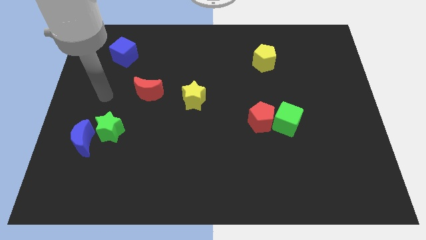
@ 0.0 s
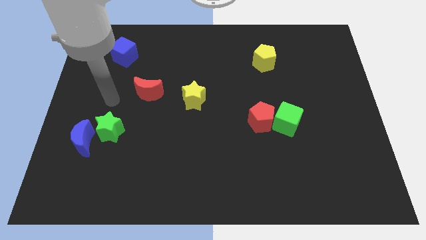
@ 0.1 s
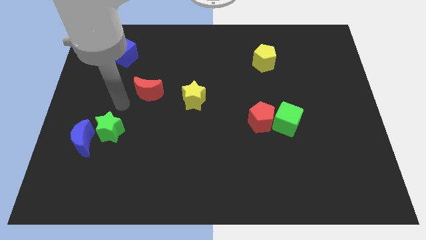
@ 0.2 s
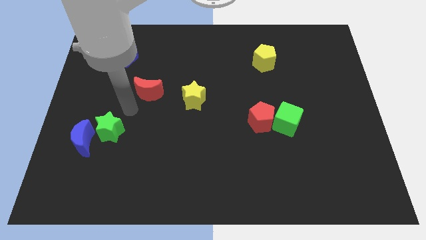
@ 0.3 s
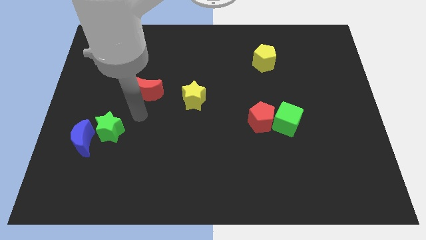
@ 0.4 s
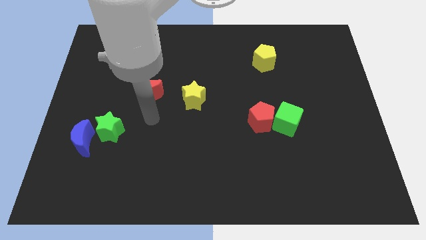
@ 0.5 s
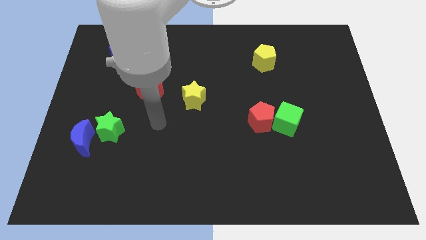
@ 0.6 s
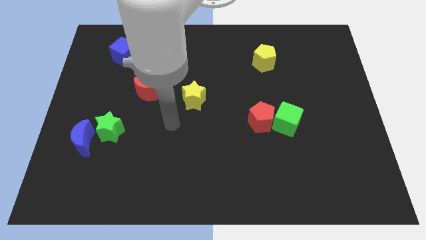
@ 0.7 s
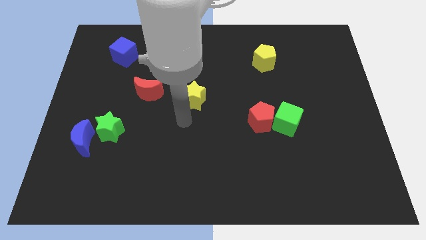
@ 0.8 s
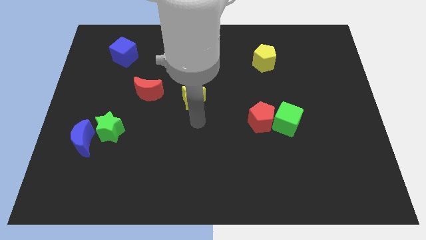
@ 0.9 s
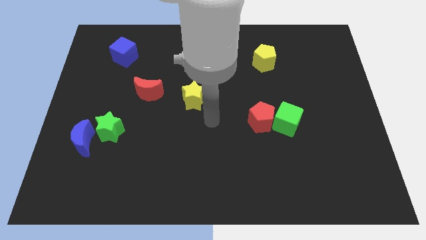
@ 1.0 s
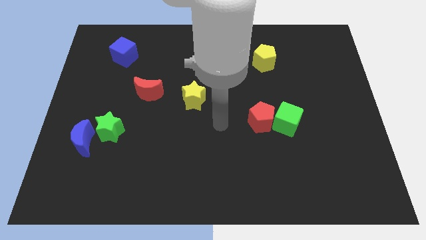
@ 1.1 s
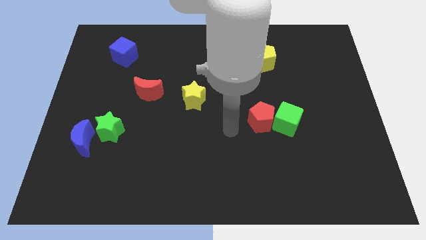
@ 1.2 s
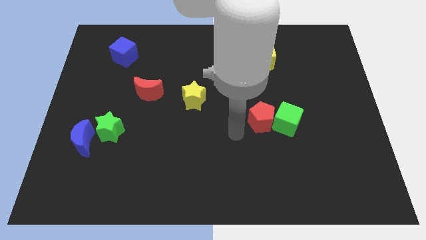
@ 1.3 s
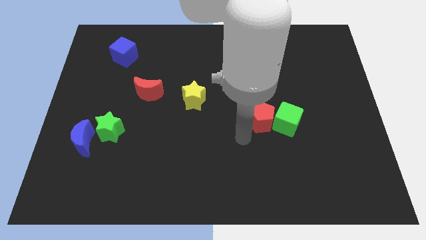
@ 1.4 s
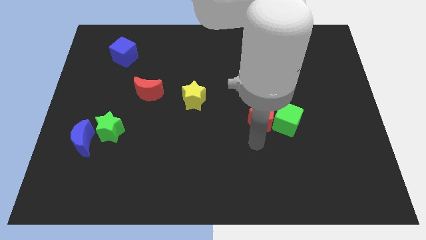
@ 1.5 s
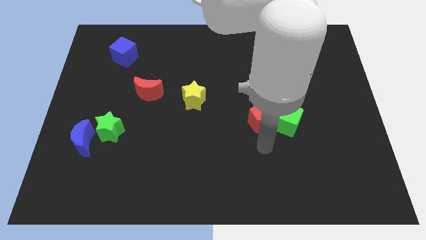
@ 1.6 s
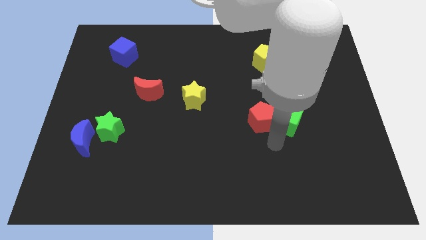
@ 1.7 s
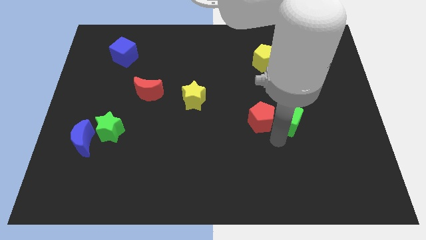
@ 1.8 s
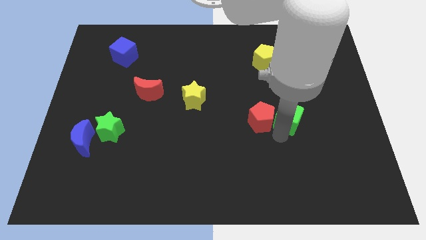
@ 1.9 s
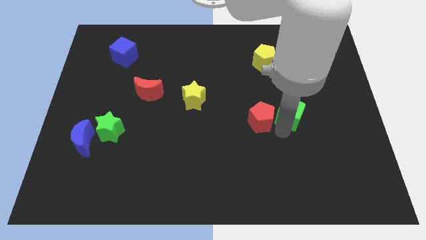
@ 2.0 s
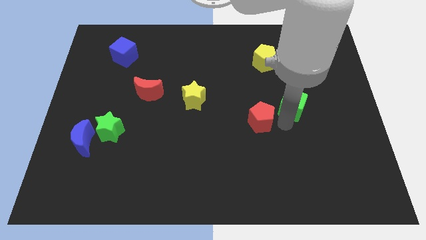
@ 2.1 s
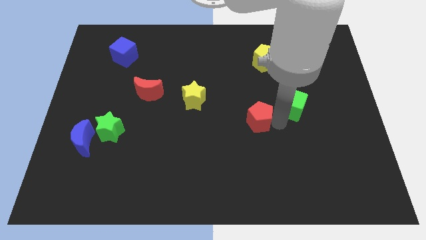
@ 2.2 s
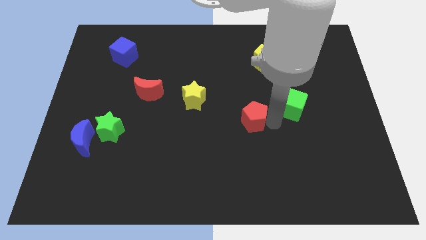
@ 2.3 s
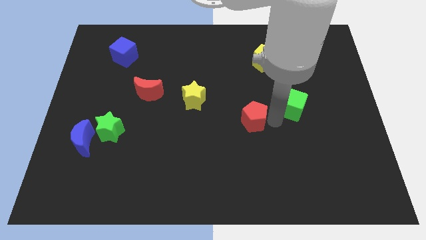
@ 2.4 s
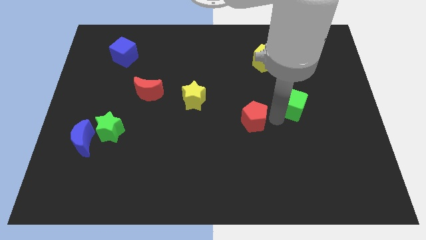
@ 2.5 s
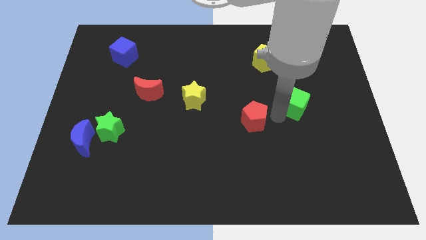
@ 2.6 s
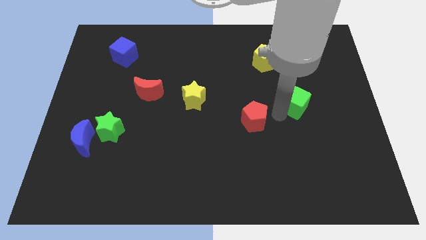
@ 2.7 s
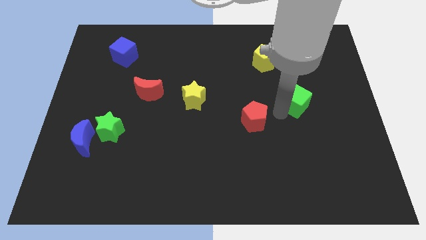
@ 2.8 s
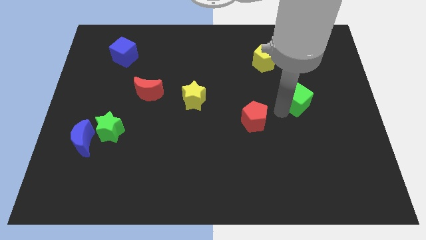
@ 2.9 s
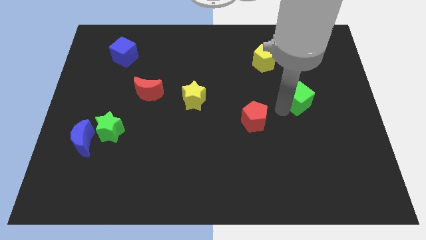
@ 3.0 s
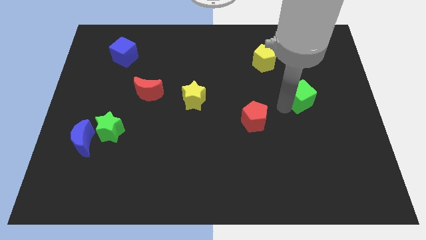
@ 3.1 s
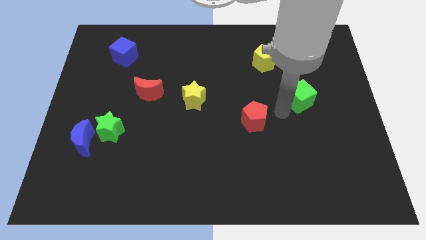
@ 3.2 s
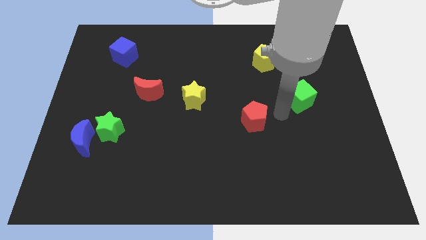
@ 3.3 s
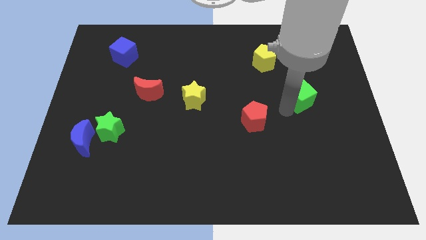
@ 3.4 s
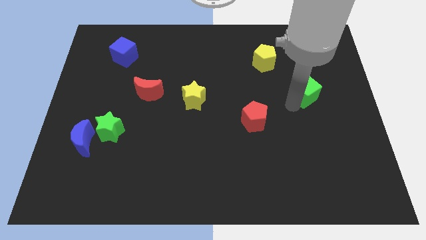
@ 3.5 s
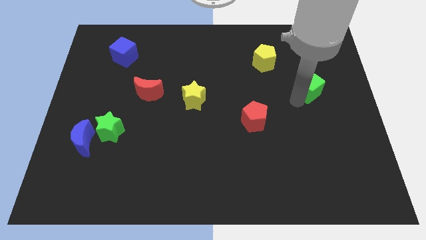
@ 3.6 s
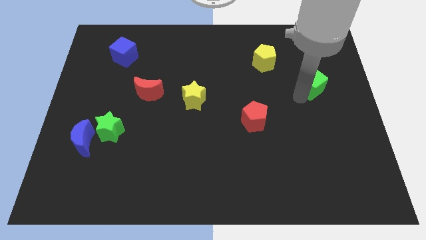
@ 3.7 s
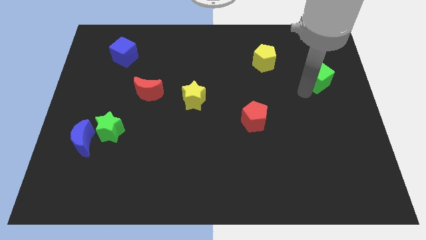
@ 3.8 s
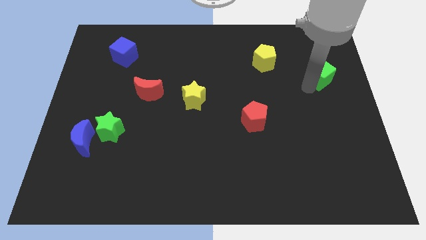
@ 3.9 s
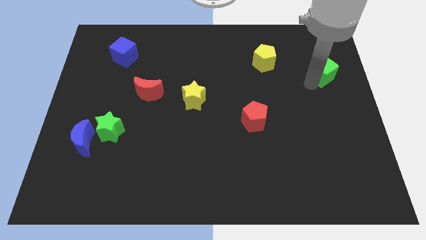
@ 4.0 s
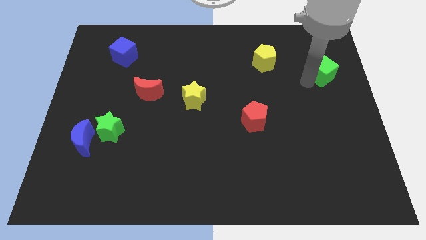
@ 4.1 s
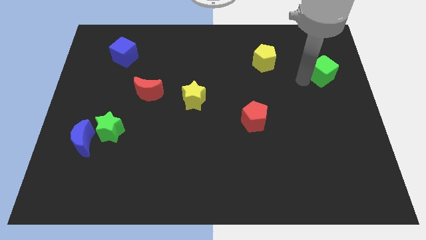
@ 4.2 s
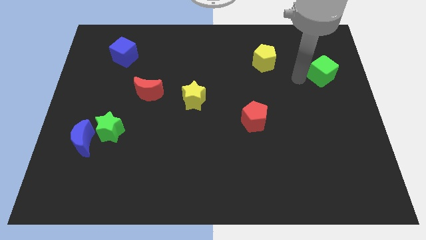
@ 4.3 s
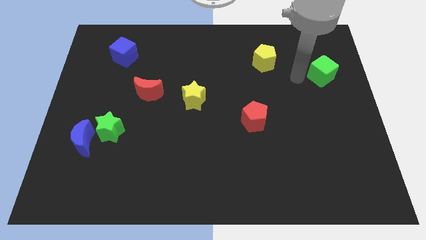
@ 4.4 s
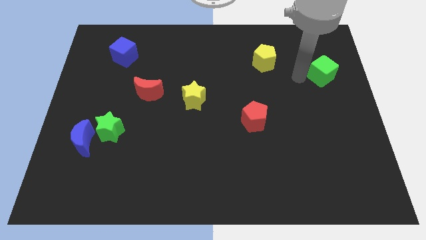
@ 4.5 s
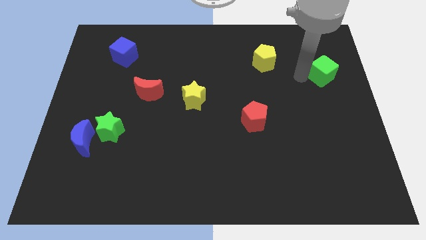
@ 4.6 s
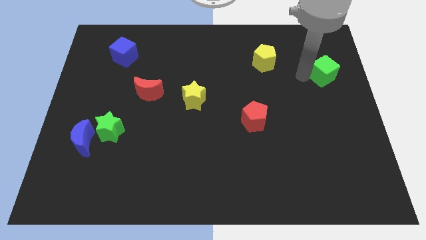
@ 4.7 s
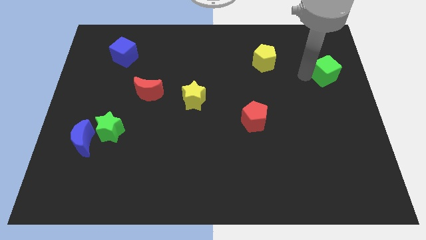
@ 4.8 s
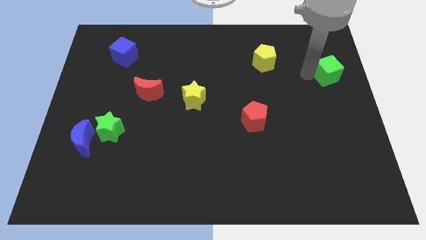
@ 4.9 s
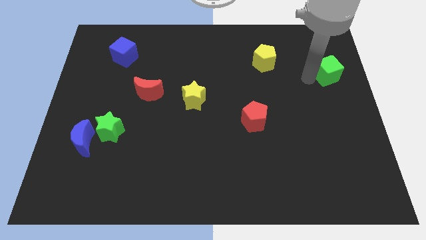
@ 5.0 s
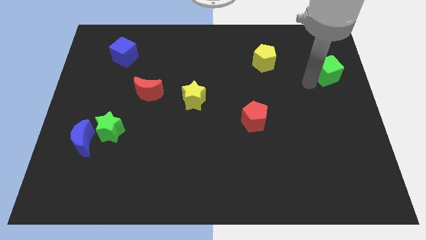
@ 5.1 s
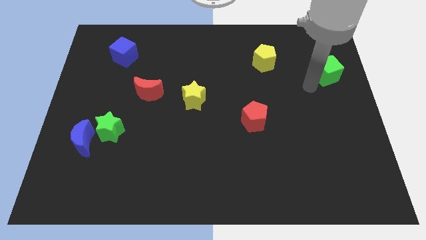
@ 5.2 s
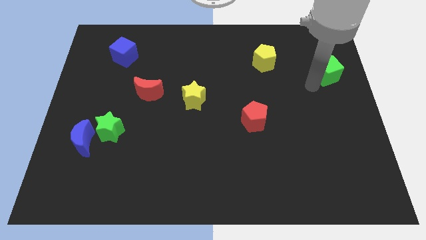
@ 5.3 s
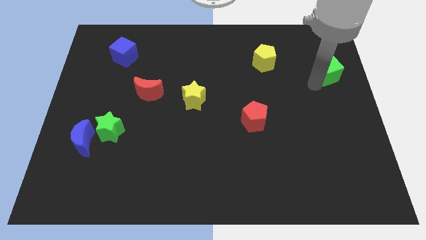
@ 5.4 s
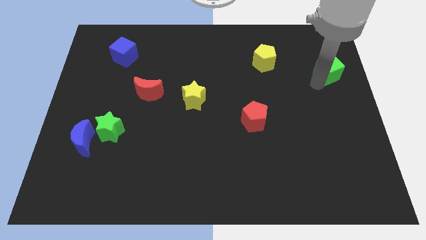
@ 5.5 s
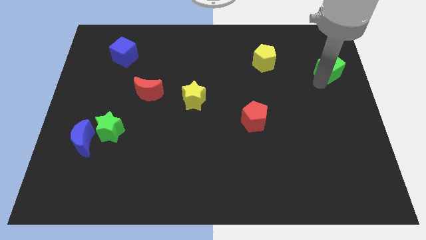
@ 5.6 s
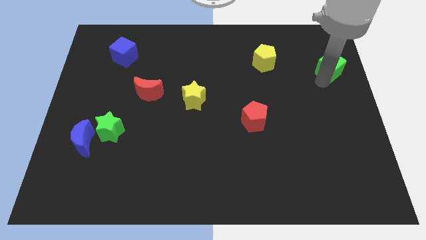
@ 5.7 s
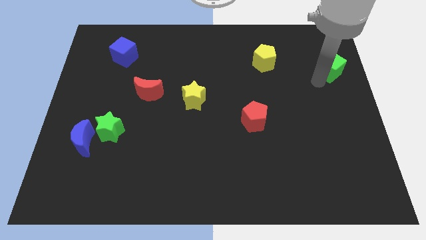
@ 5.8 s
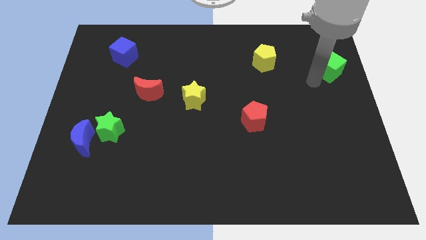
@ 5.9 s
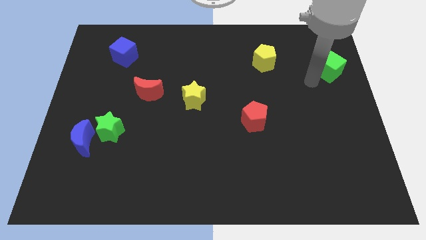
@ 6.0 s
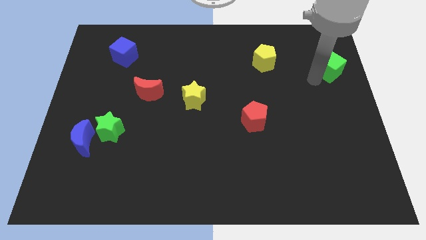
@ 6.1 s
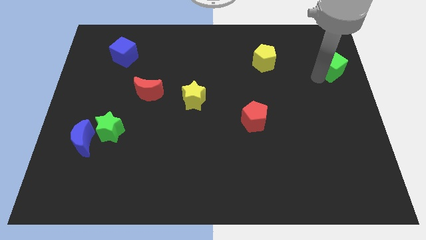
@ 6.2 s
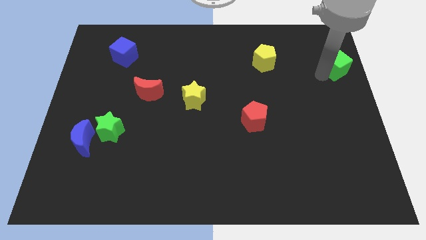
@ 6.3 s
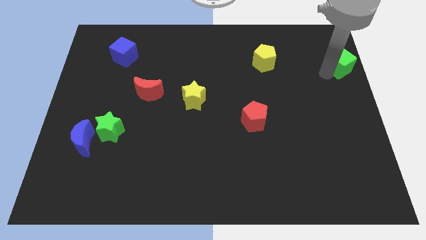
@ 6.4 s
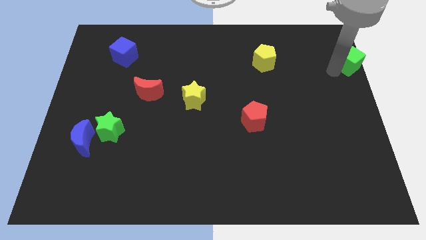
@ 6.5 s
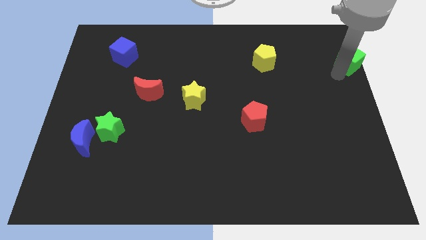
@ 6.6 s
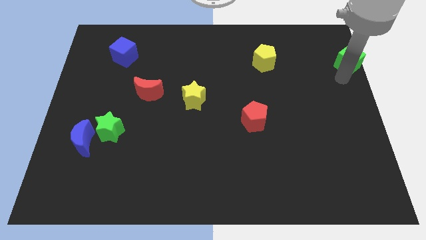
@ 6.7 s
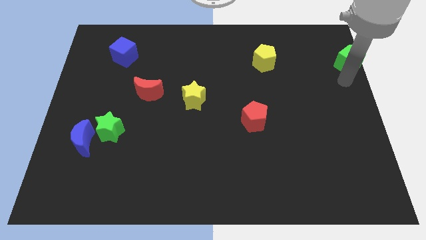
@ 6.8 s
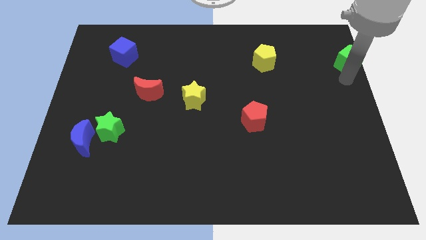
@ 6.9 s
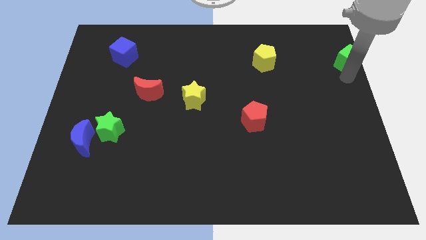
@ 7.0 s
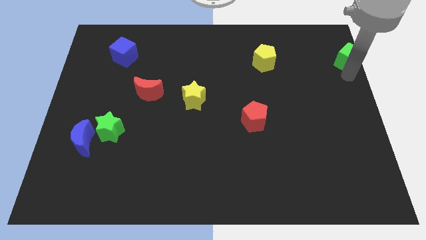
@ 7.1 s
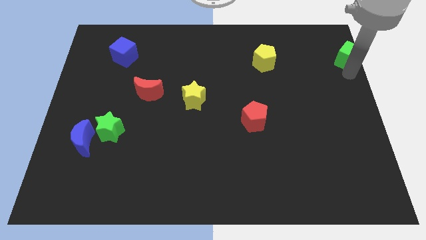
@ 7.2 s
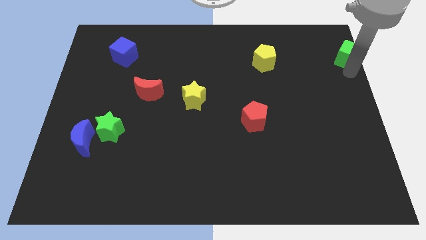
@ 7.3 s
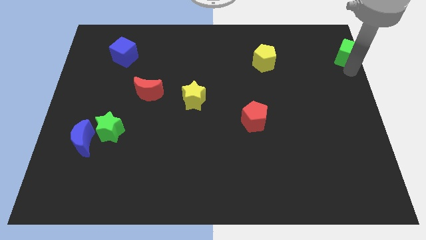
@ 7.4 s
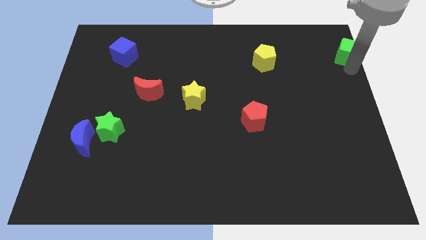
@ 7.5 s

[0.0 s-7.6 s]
move the green cube to the top right
